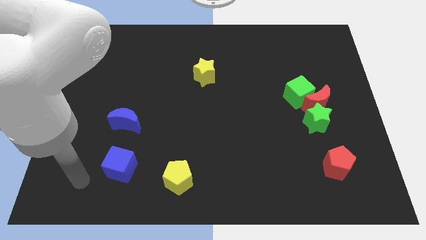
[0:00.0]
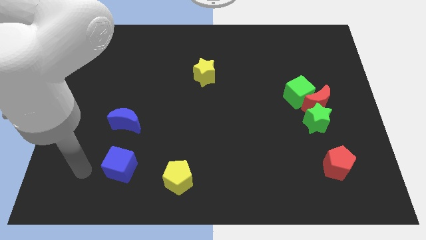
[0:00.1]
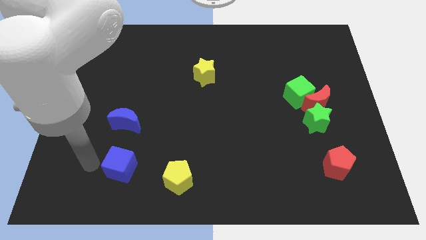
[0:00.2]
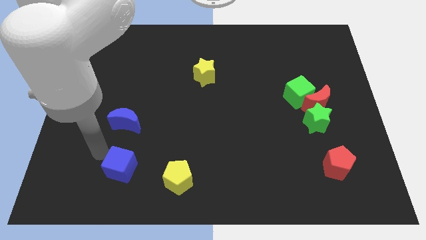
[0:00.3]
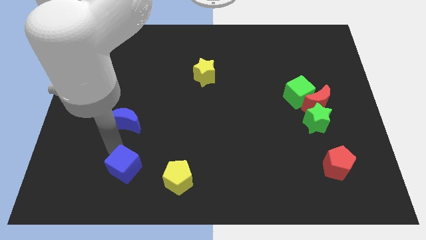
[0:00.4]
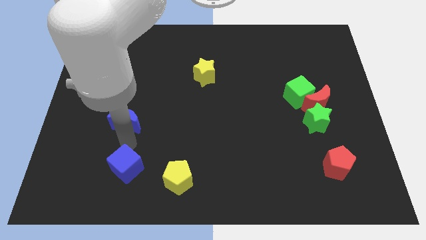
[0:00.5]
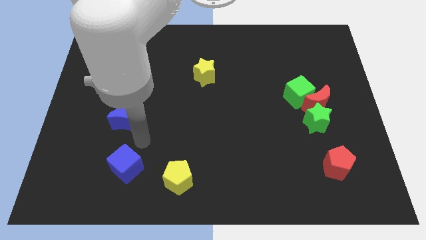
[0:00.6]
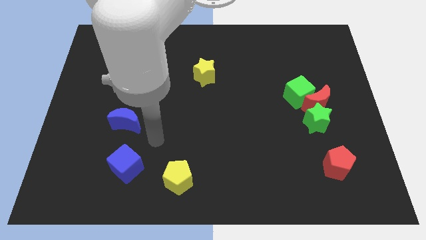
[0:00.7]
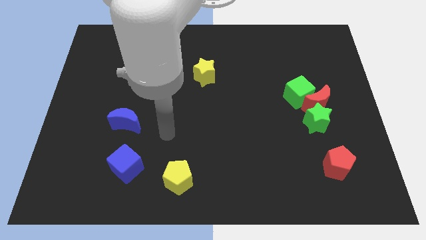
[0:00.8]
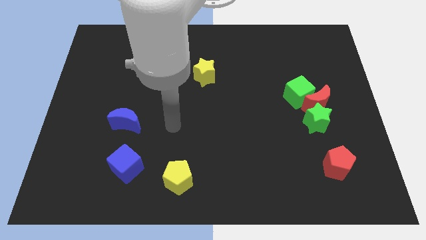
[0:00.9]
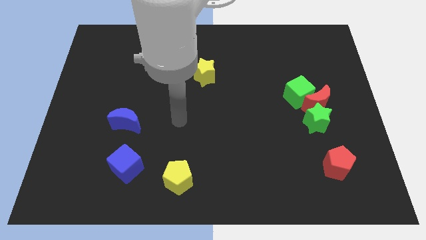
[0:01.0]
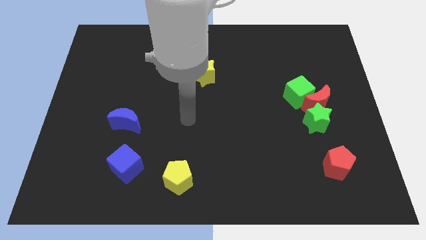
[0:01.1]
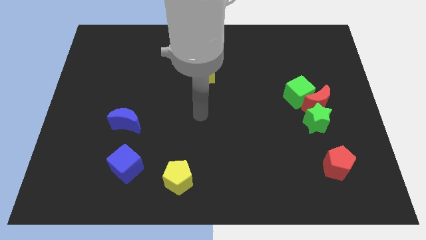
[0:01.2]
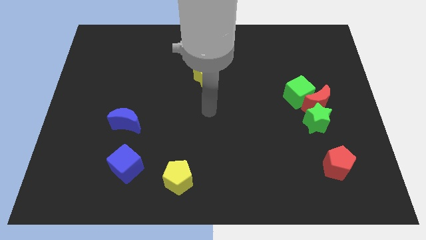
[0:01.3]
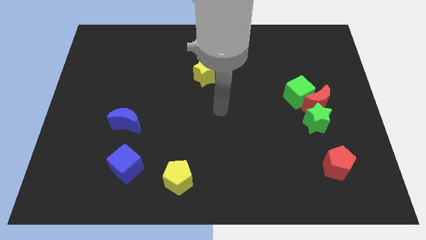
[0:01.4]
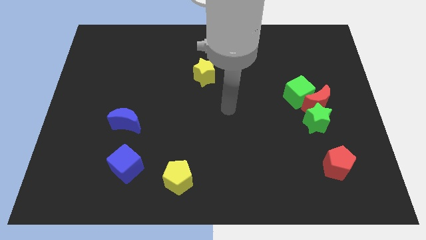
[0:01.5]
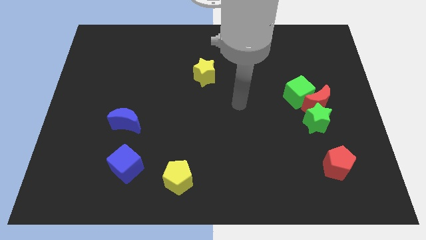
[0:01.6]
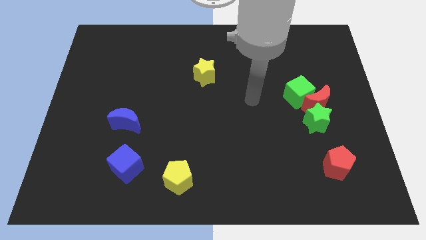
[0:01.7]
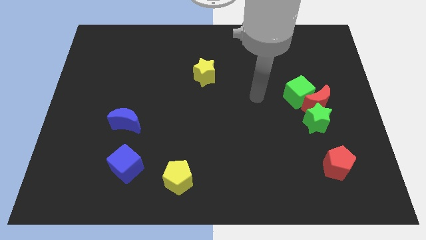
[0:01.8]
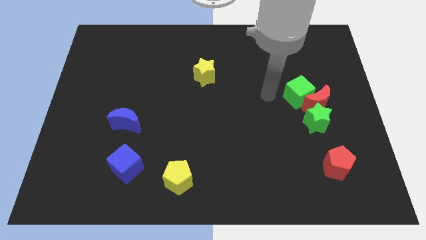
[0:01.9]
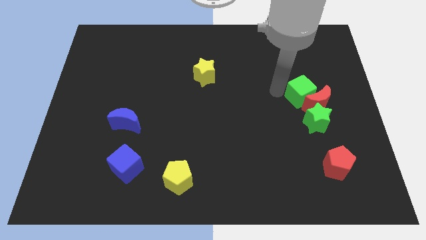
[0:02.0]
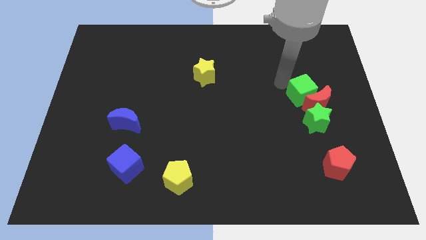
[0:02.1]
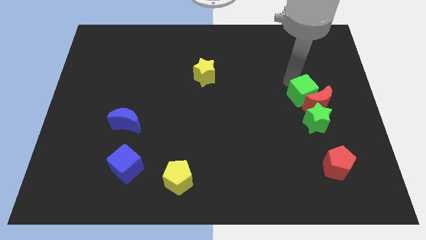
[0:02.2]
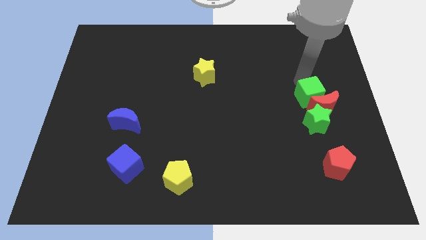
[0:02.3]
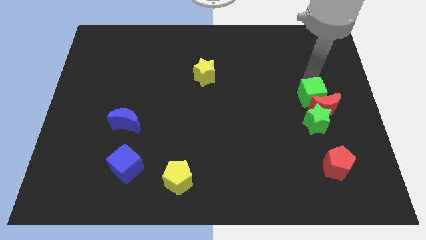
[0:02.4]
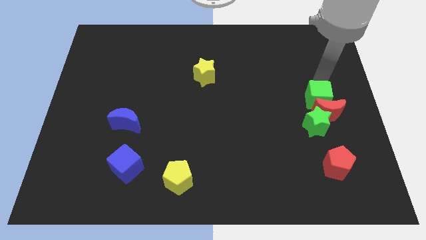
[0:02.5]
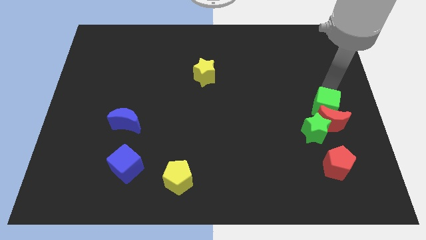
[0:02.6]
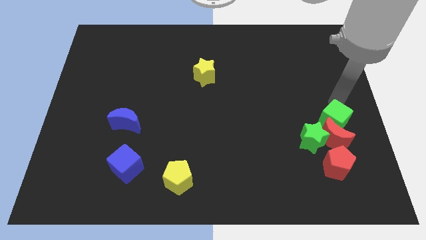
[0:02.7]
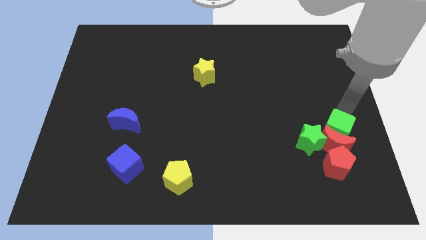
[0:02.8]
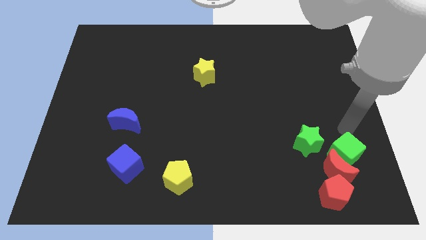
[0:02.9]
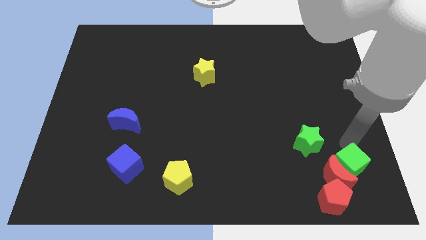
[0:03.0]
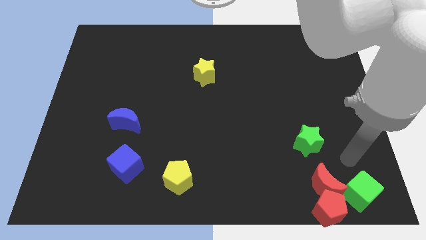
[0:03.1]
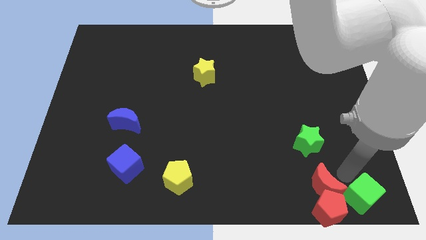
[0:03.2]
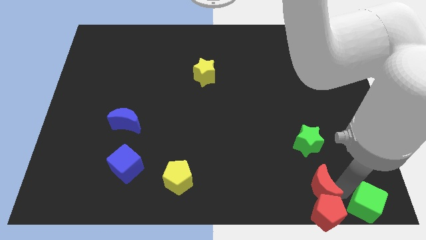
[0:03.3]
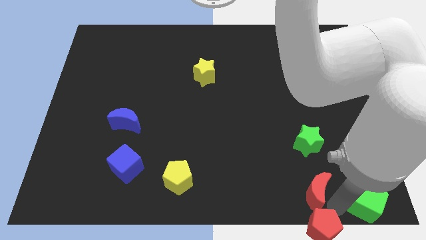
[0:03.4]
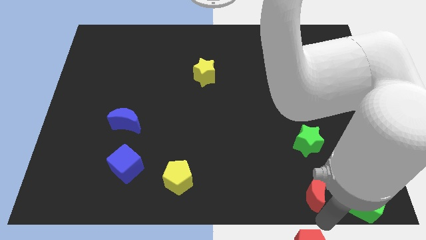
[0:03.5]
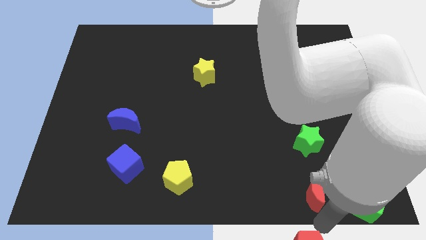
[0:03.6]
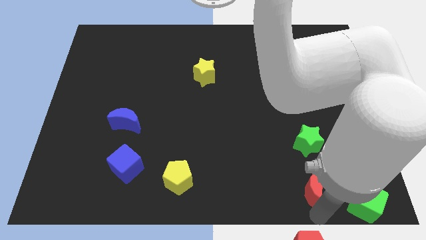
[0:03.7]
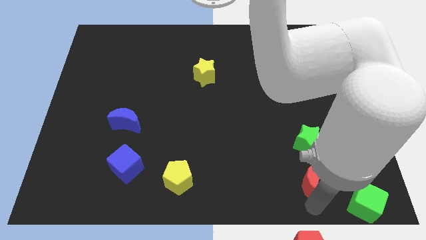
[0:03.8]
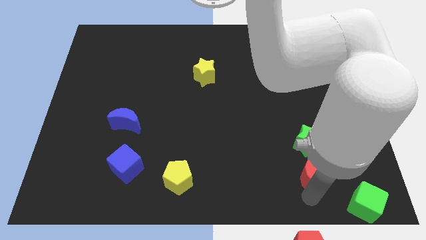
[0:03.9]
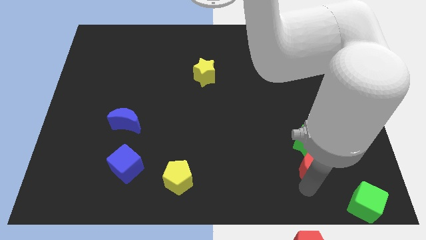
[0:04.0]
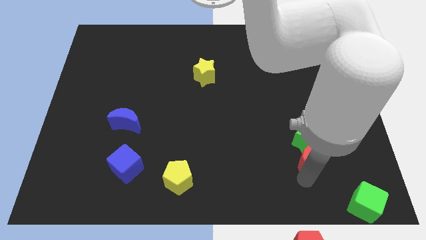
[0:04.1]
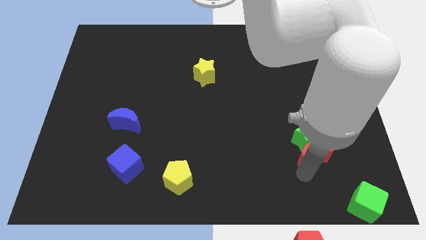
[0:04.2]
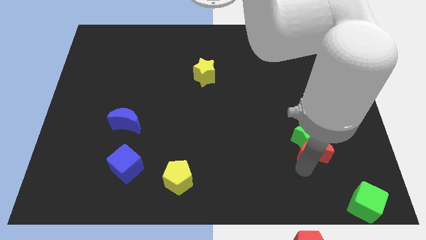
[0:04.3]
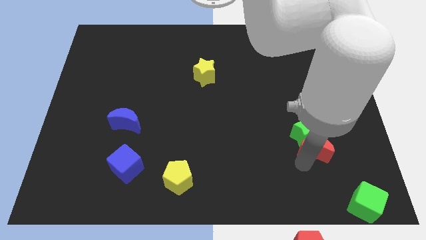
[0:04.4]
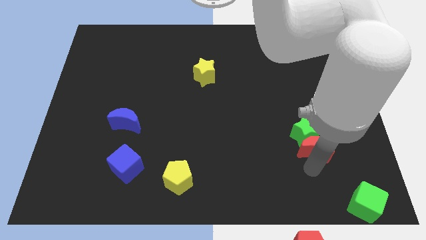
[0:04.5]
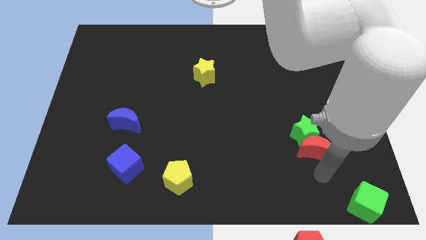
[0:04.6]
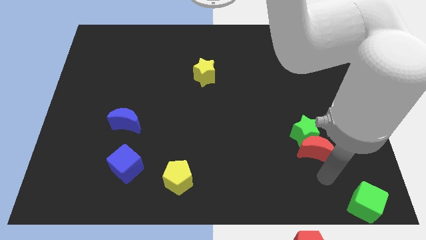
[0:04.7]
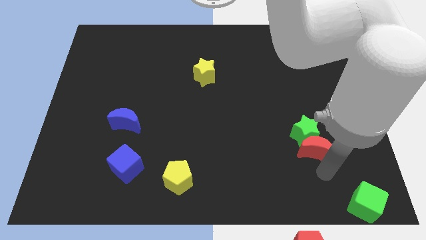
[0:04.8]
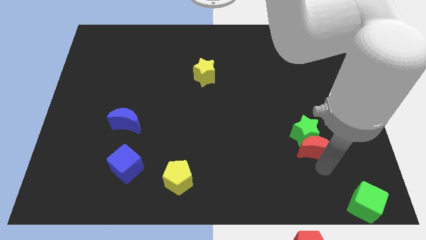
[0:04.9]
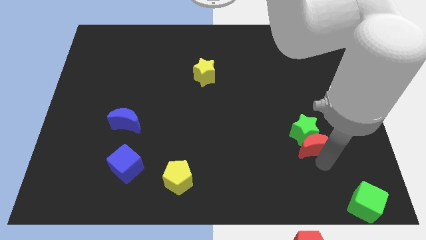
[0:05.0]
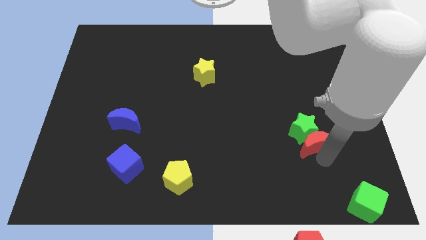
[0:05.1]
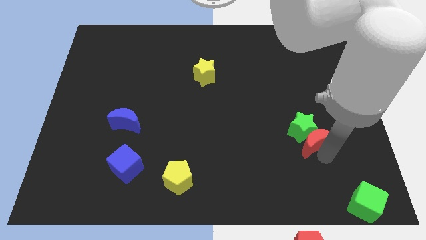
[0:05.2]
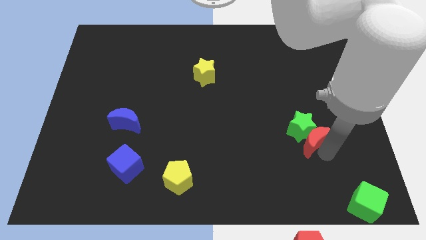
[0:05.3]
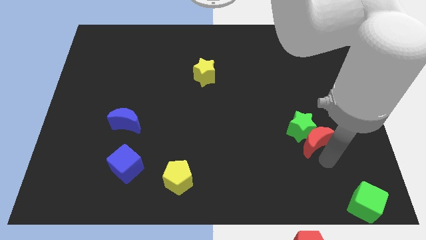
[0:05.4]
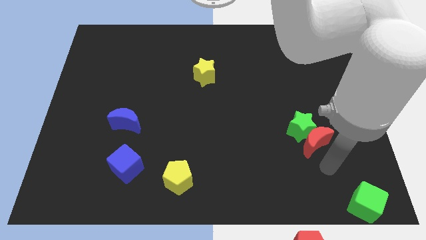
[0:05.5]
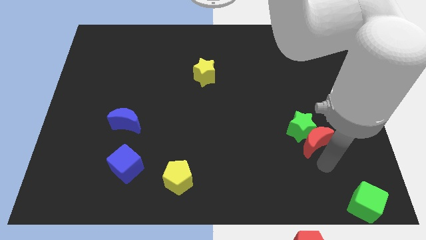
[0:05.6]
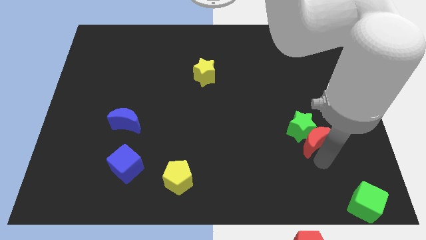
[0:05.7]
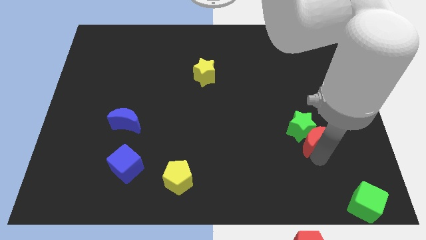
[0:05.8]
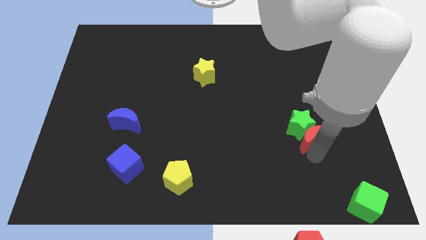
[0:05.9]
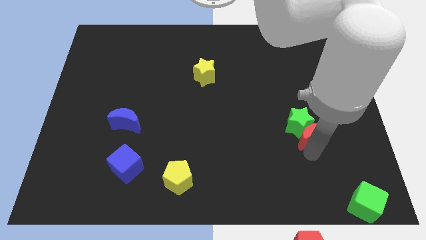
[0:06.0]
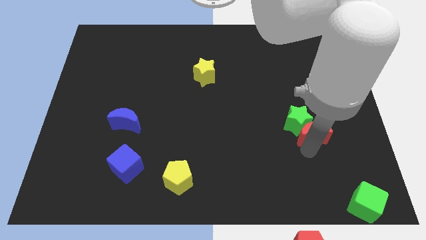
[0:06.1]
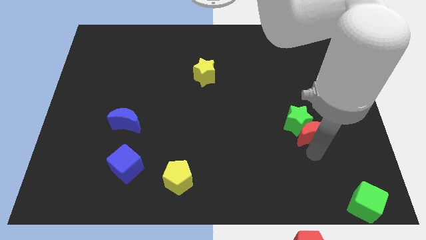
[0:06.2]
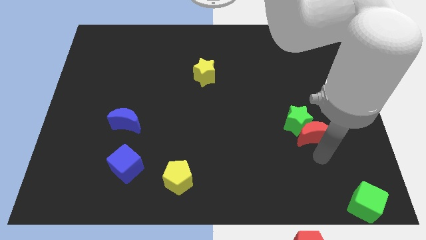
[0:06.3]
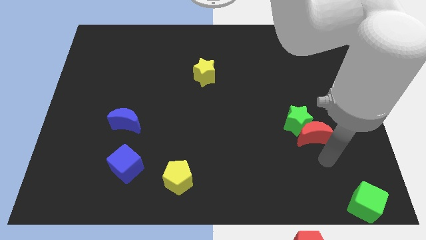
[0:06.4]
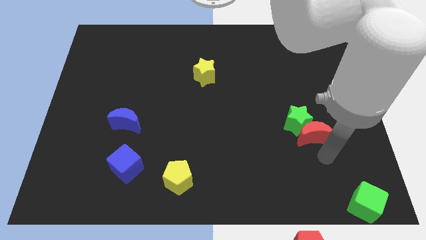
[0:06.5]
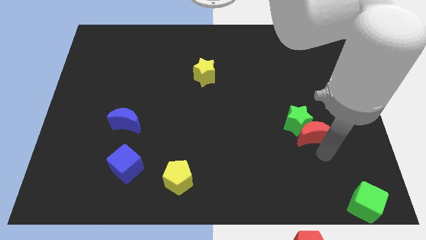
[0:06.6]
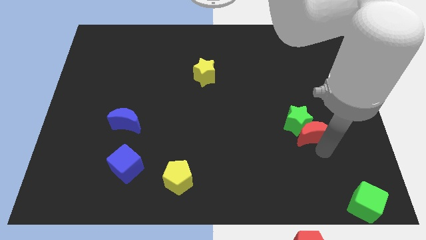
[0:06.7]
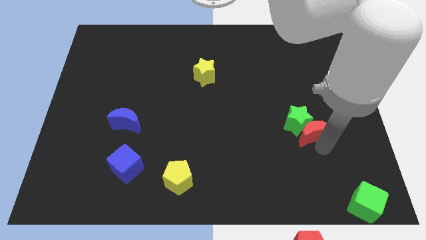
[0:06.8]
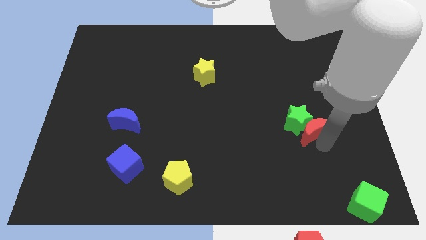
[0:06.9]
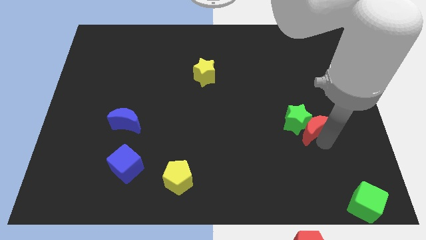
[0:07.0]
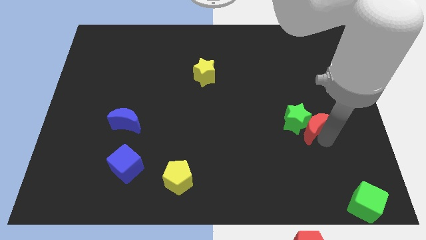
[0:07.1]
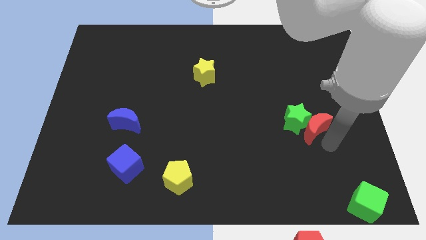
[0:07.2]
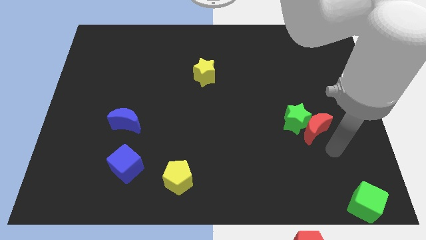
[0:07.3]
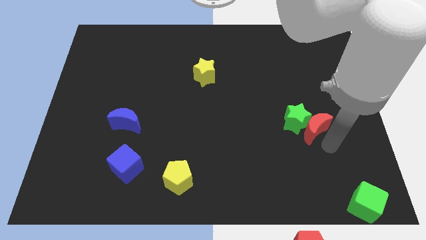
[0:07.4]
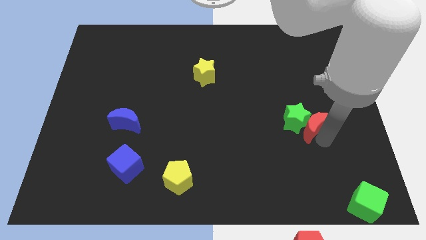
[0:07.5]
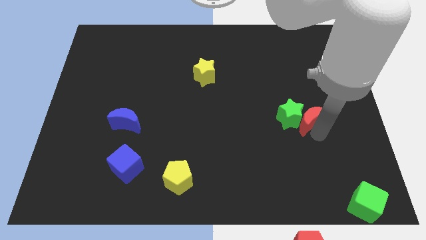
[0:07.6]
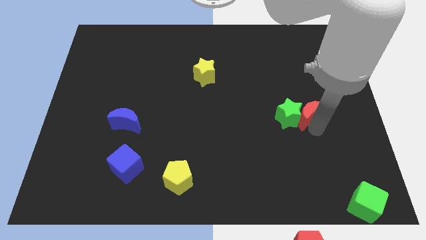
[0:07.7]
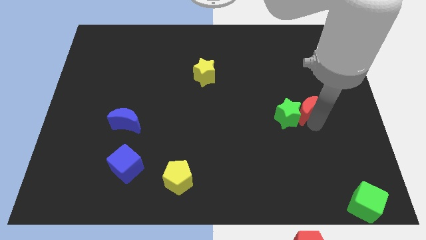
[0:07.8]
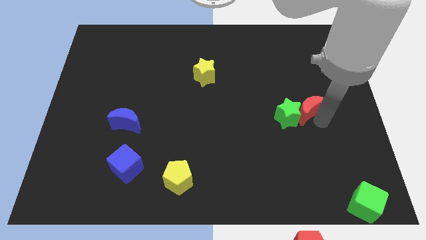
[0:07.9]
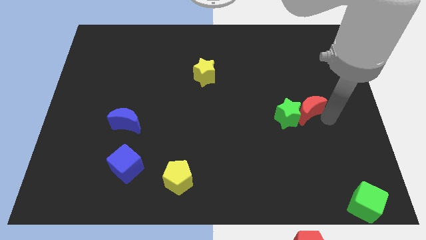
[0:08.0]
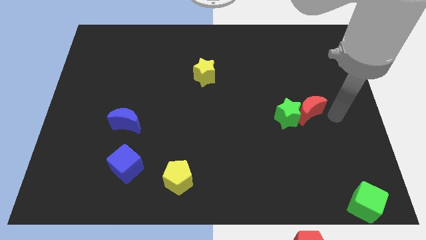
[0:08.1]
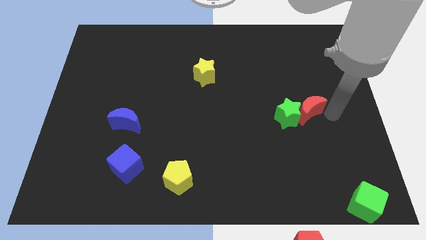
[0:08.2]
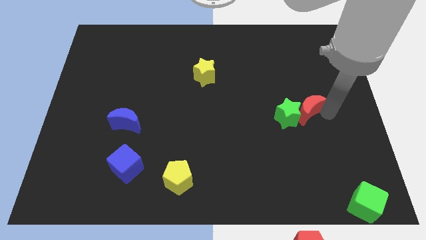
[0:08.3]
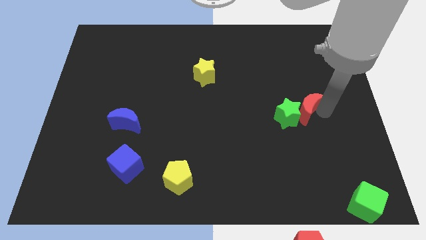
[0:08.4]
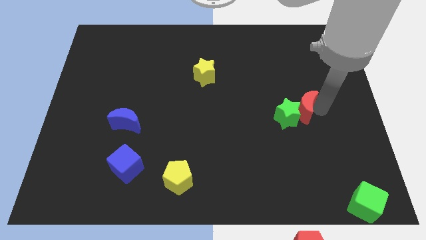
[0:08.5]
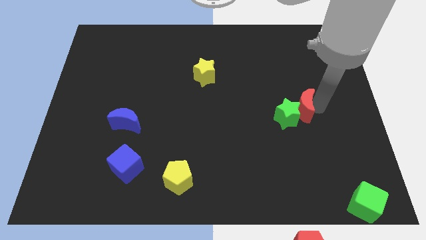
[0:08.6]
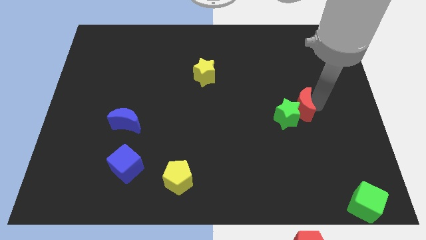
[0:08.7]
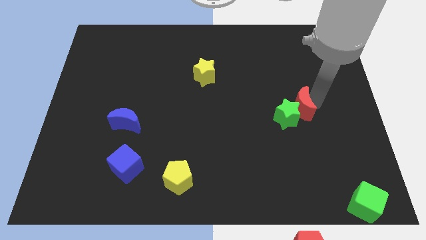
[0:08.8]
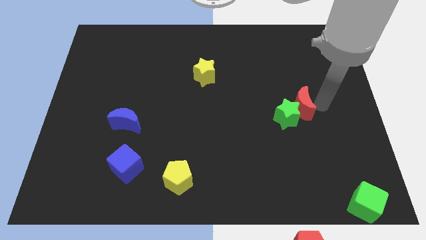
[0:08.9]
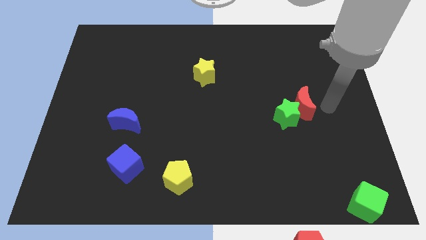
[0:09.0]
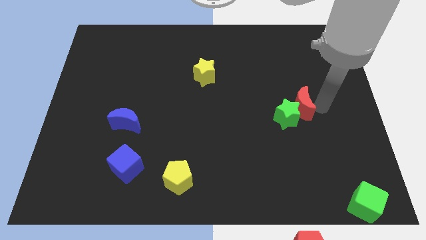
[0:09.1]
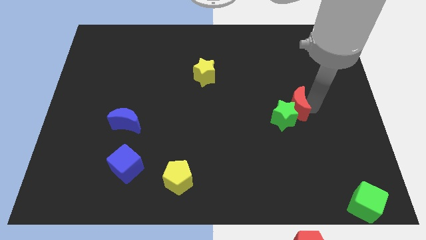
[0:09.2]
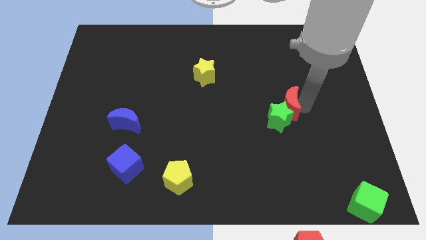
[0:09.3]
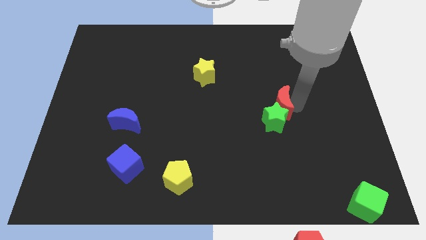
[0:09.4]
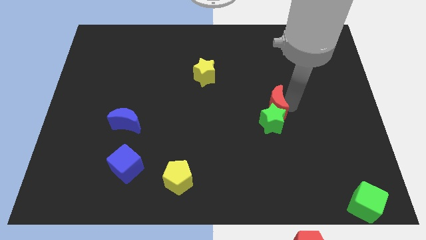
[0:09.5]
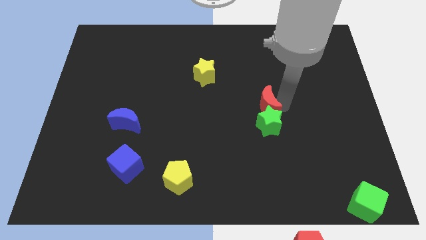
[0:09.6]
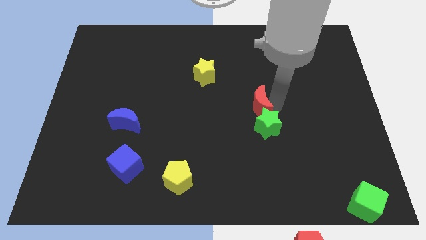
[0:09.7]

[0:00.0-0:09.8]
push the red moon to the middle of the board
